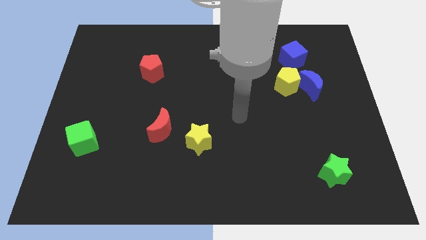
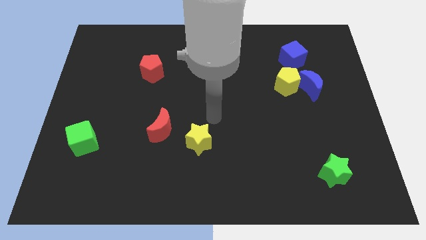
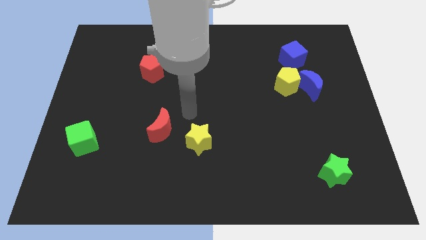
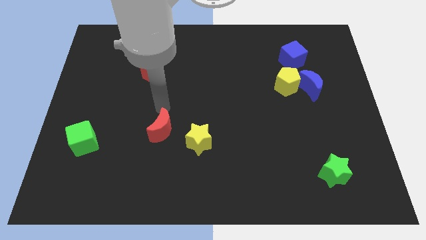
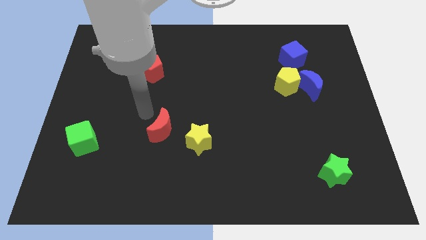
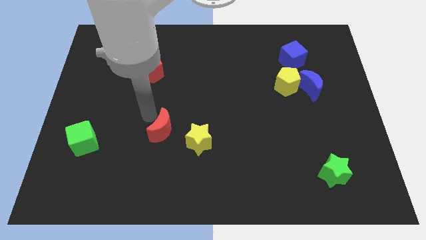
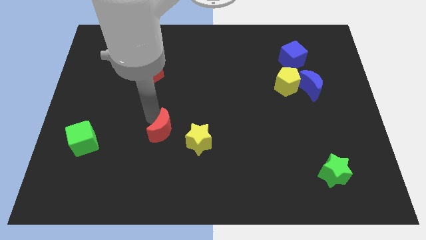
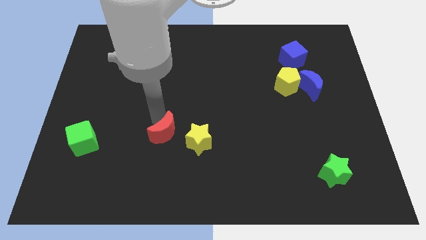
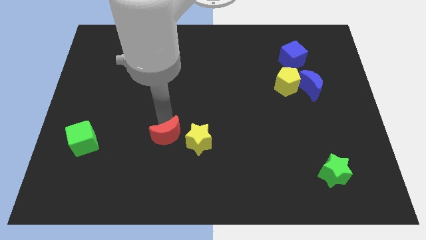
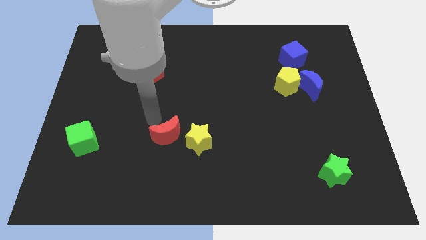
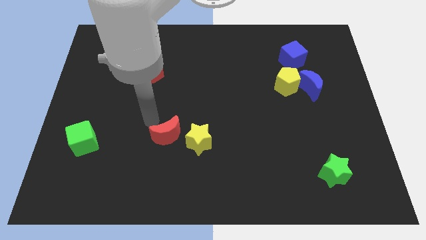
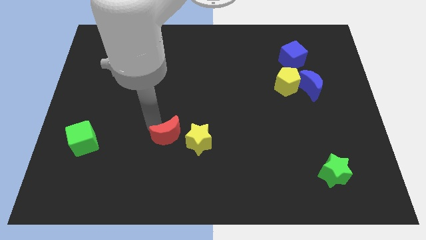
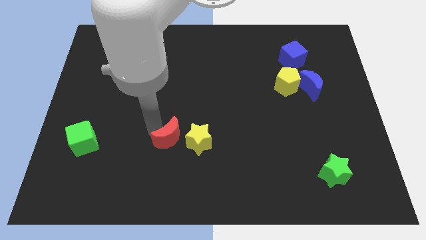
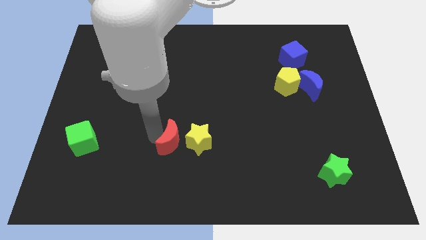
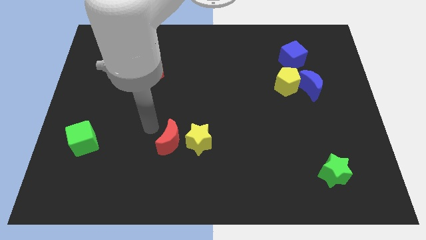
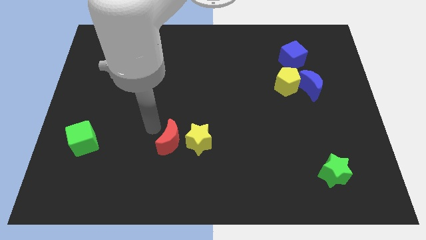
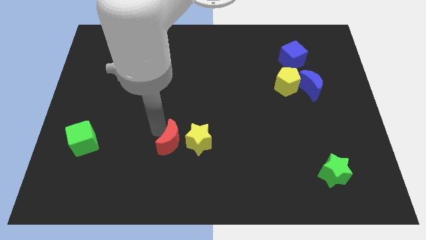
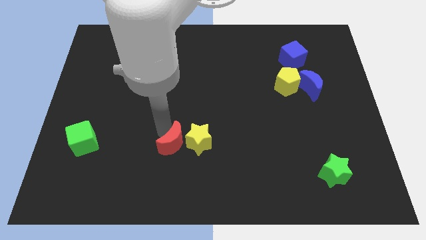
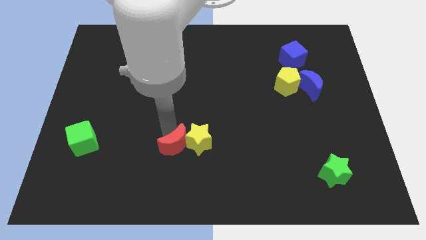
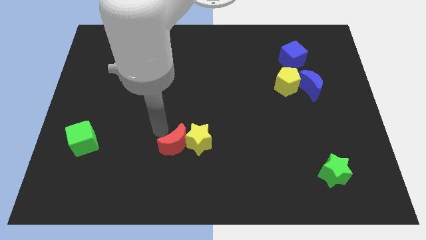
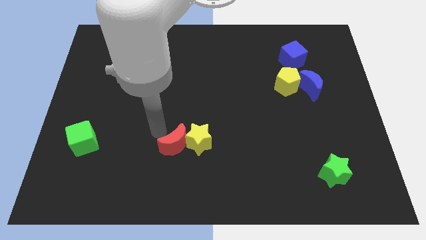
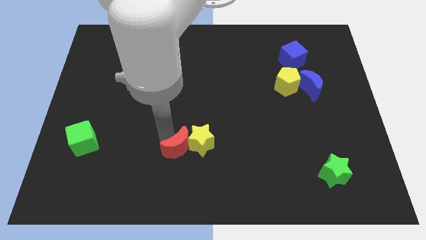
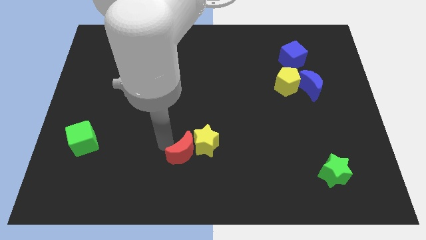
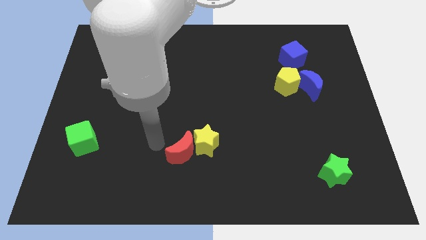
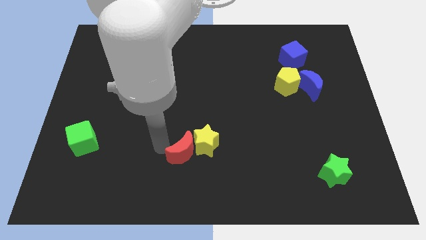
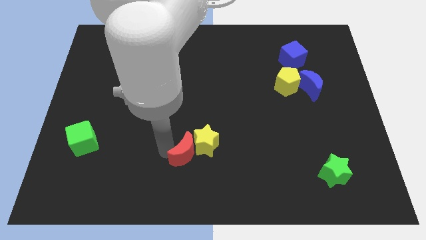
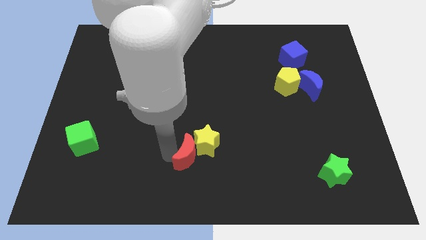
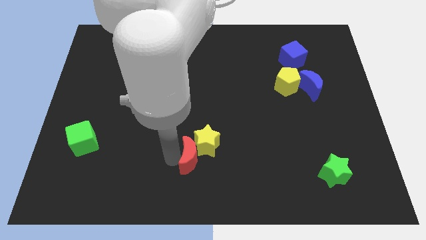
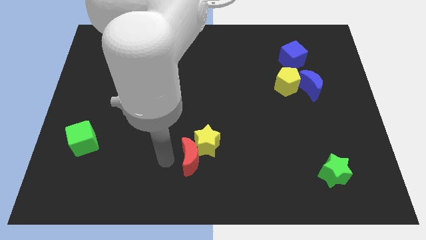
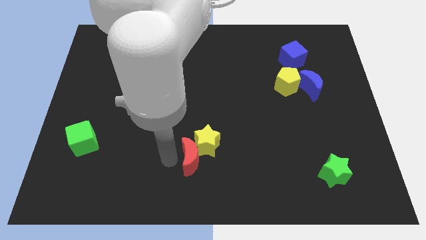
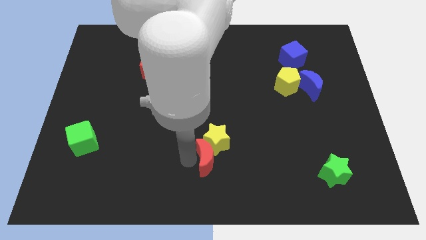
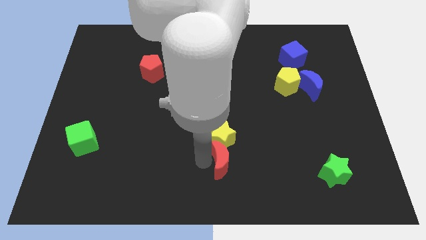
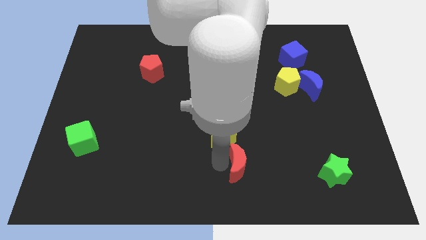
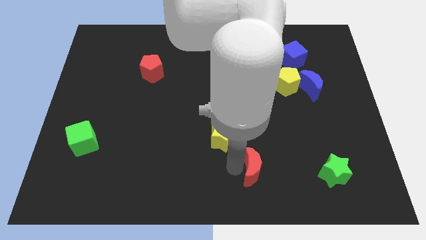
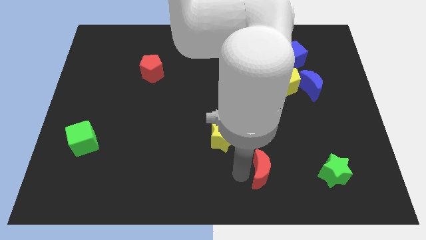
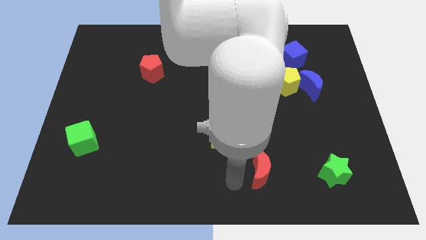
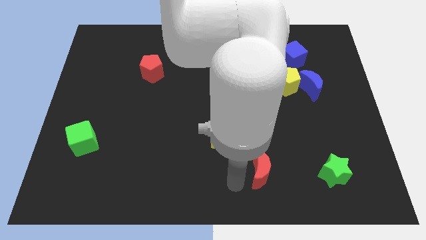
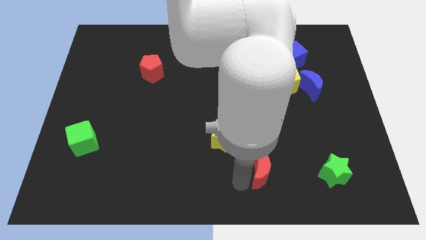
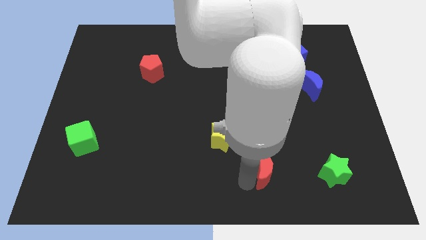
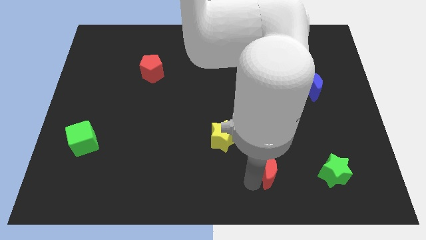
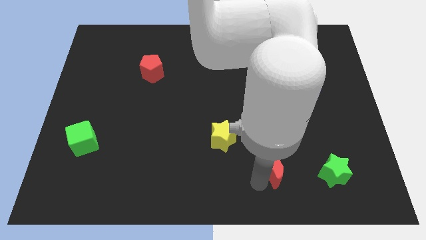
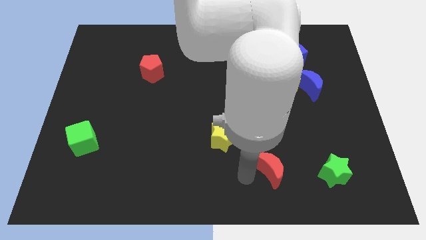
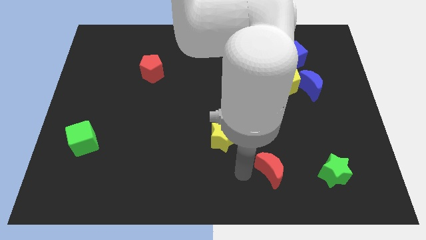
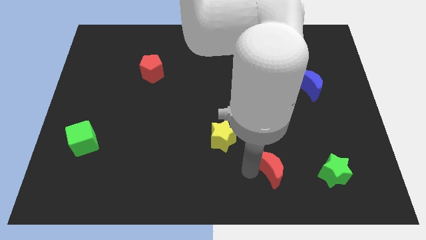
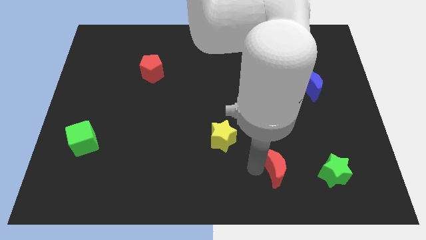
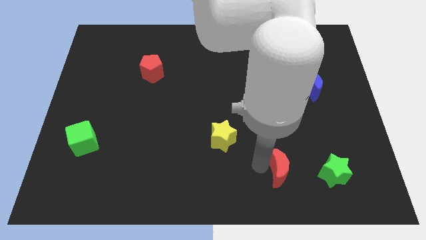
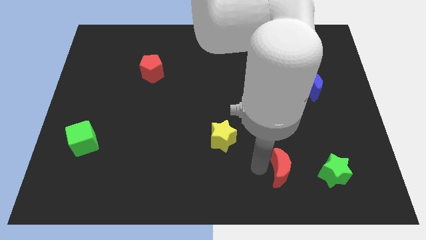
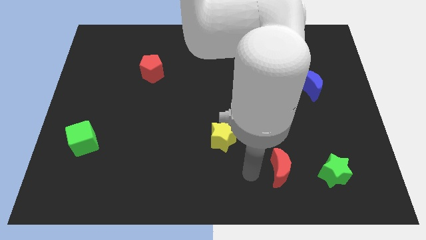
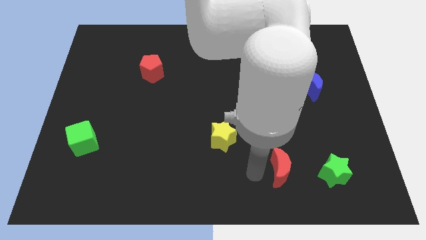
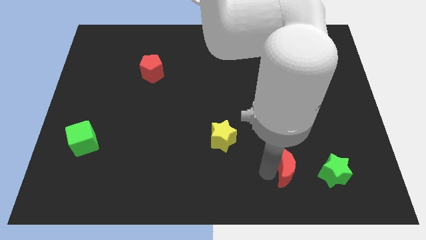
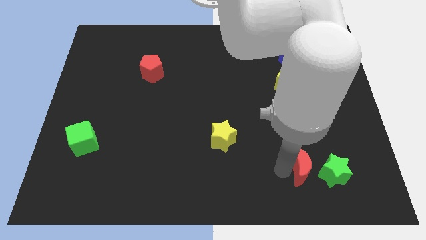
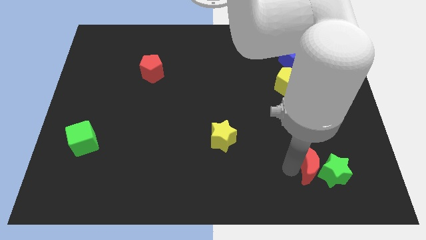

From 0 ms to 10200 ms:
slide the red moon next to the green star

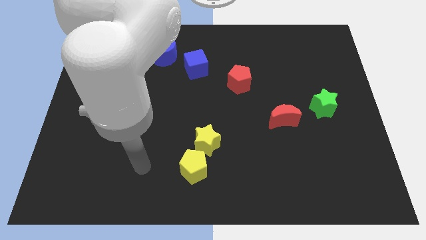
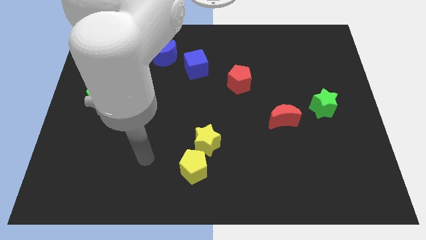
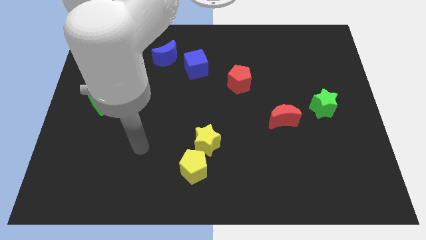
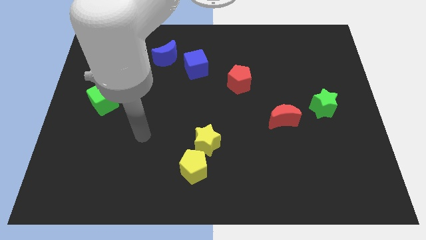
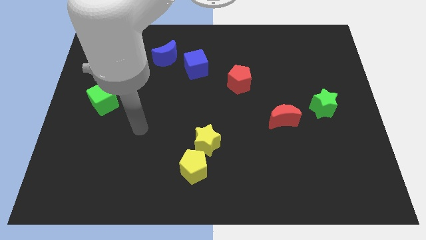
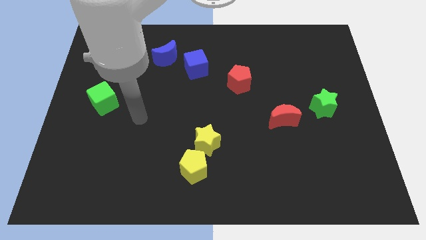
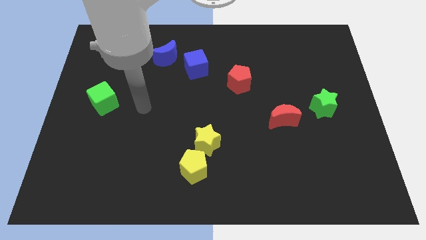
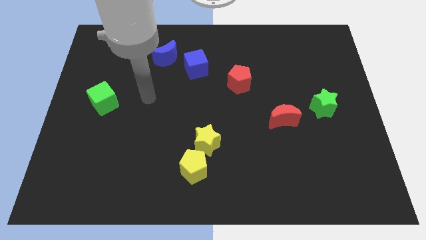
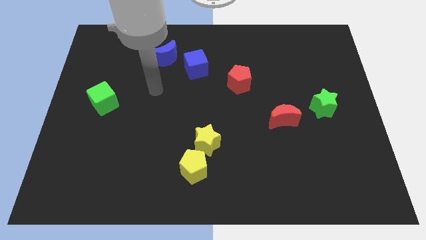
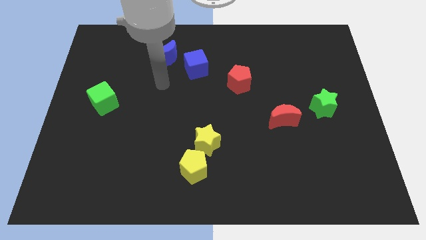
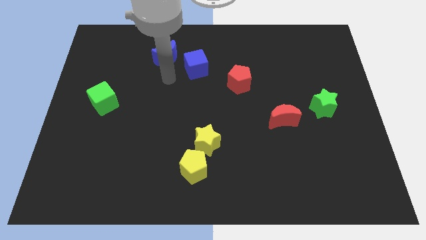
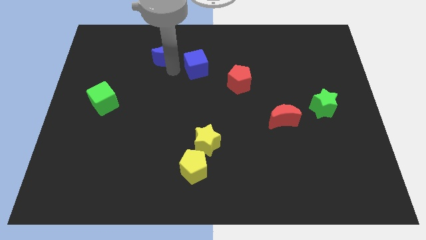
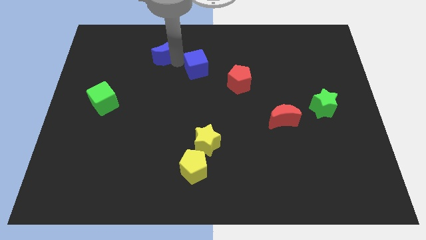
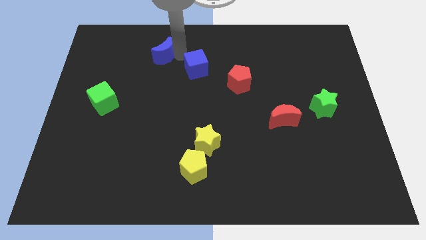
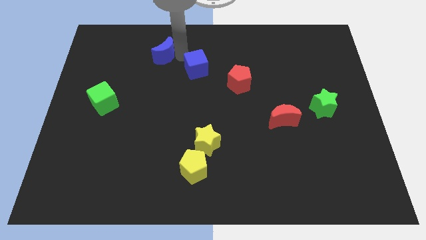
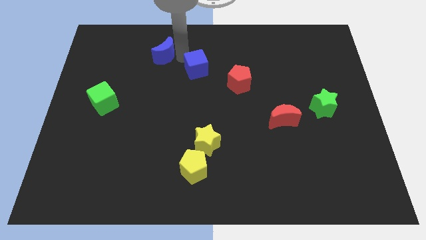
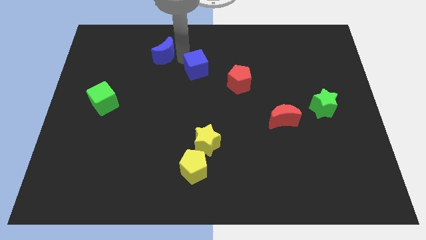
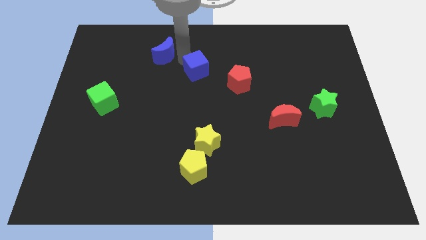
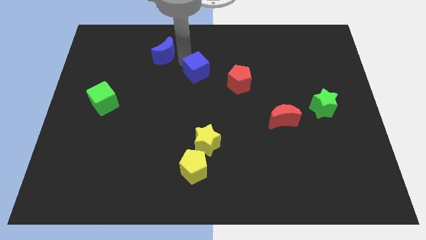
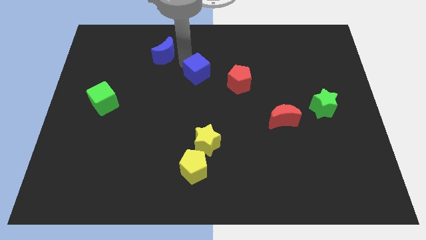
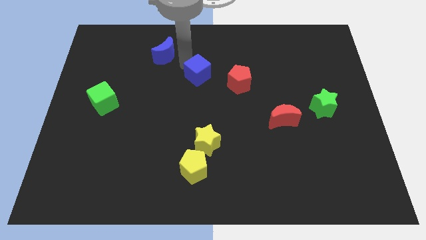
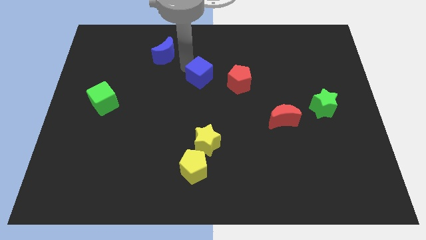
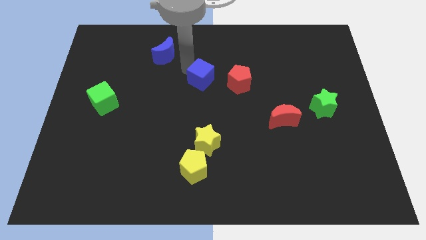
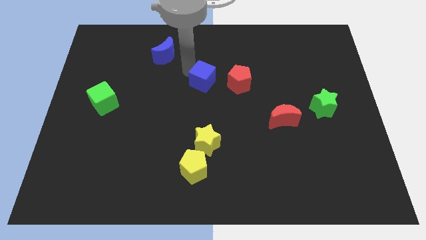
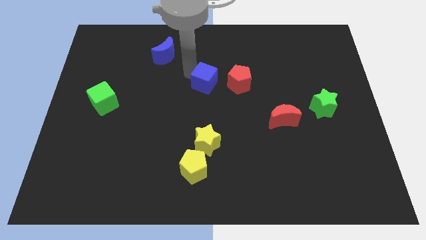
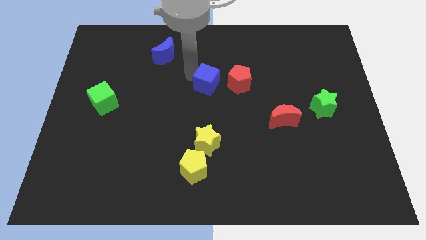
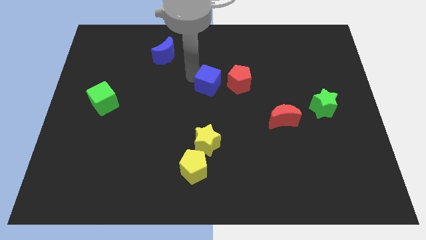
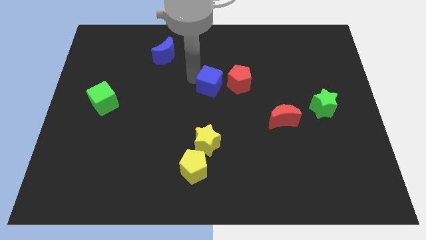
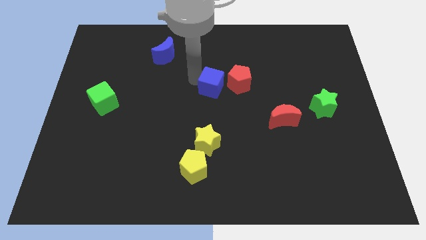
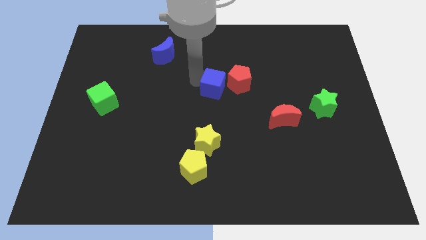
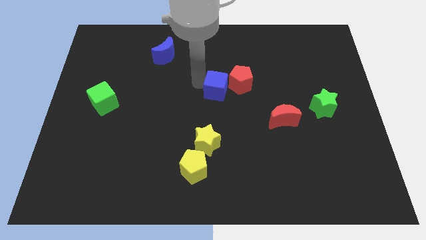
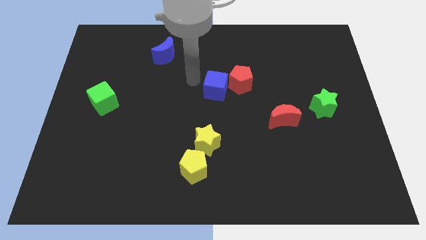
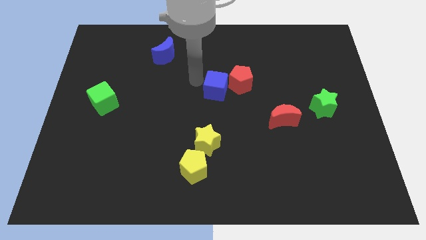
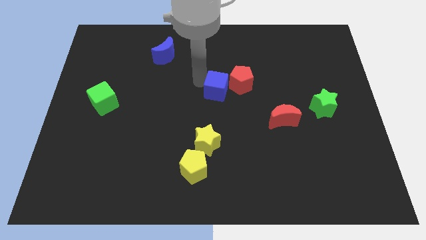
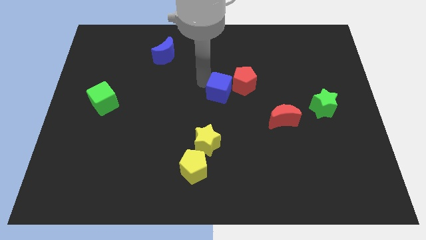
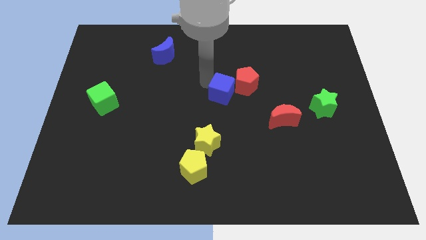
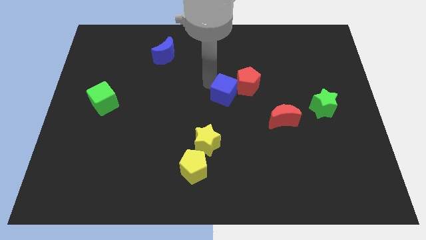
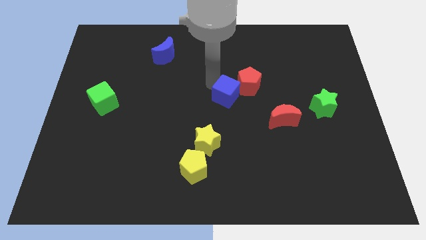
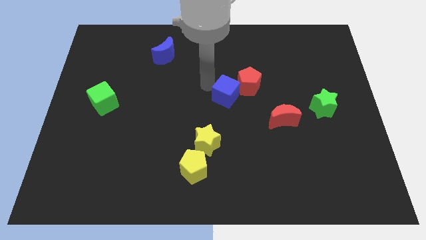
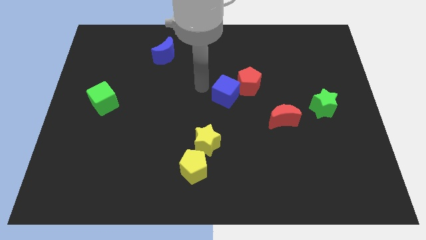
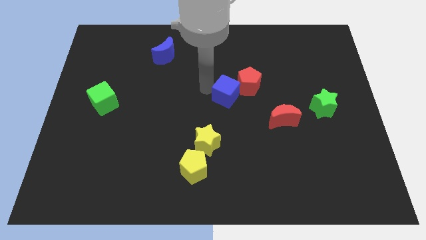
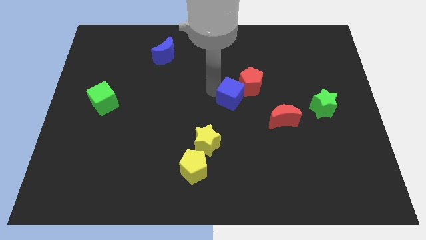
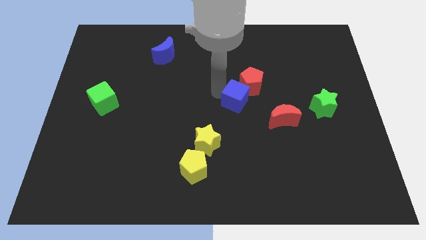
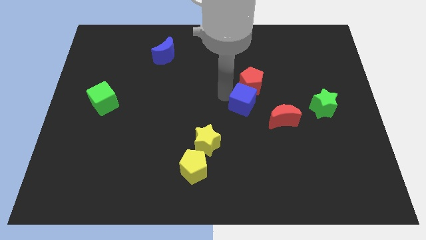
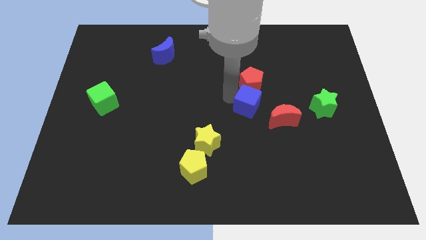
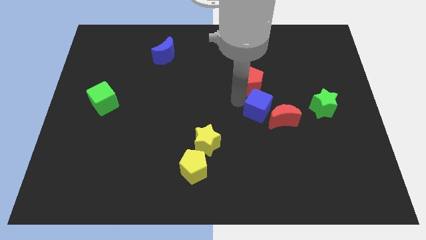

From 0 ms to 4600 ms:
put the blue cube close to the red moon
